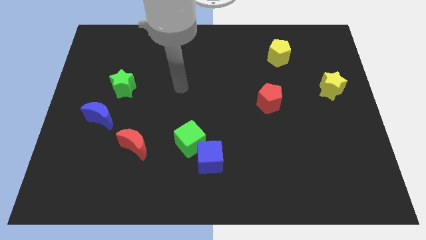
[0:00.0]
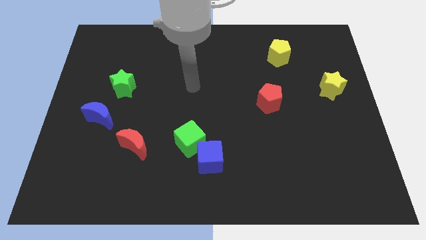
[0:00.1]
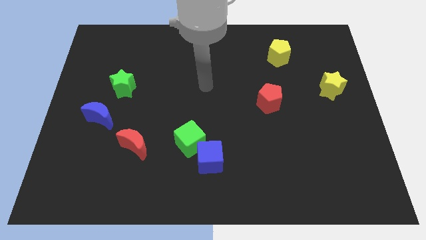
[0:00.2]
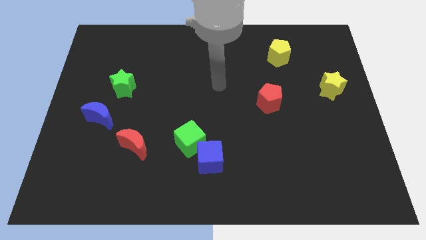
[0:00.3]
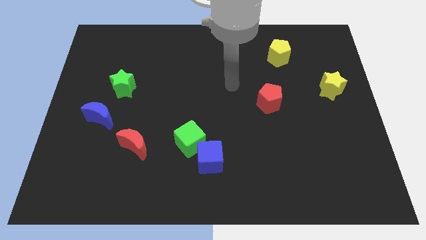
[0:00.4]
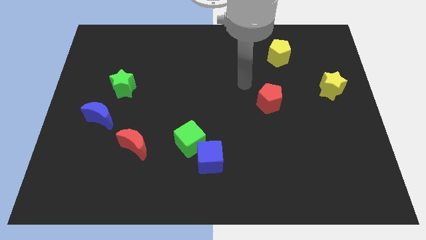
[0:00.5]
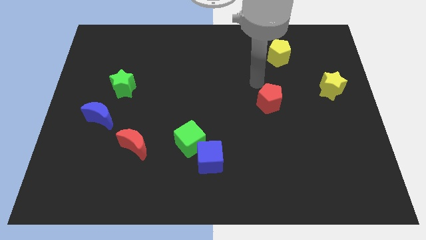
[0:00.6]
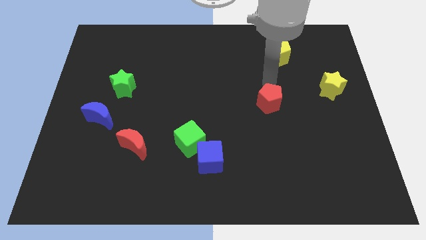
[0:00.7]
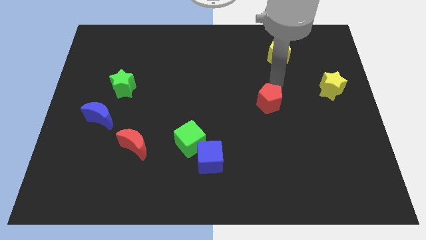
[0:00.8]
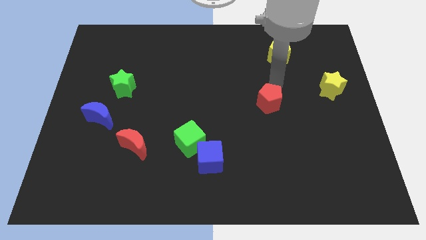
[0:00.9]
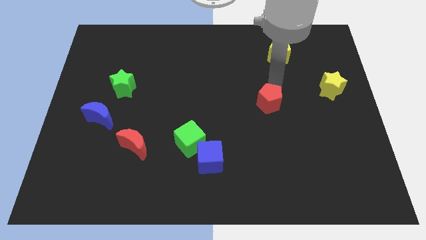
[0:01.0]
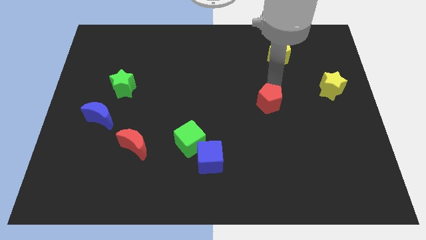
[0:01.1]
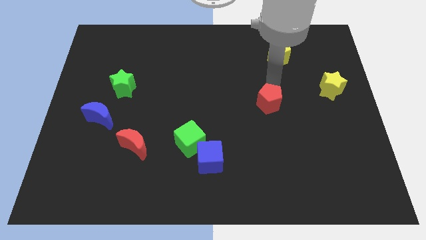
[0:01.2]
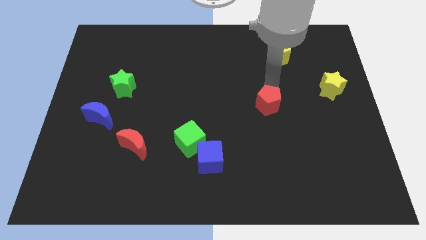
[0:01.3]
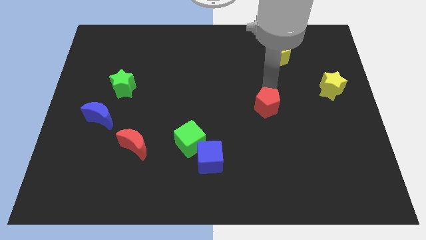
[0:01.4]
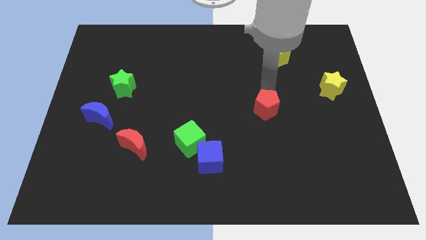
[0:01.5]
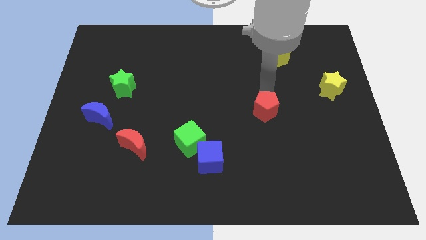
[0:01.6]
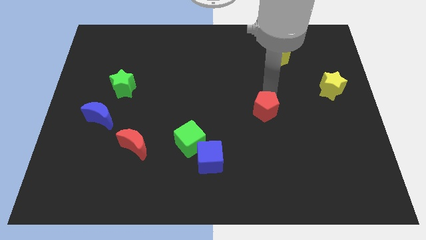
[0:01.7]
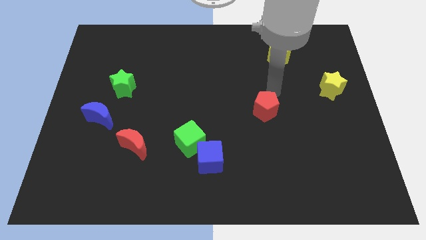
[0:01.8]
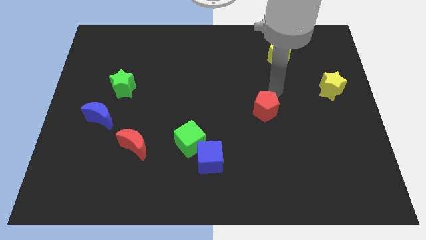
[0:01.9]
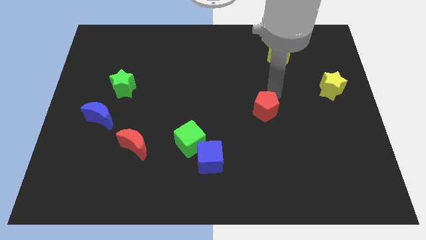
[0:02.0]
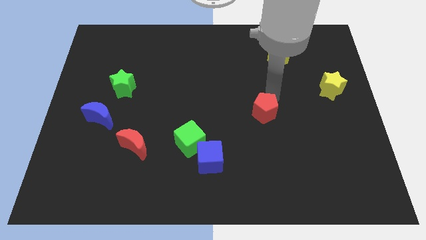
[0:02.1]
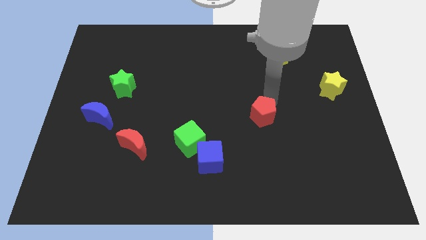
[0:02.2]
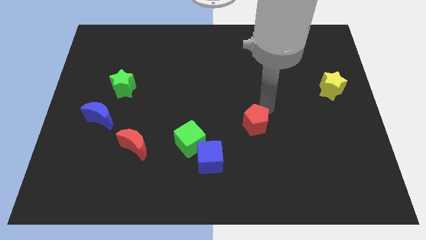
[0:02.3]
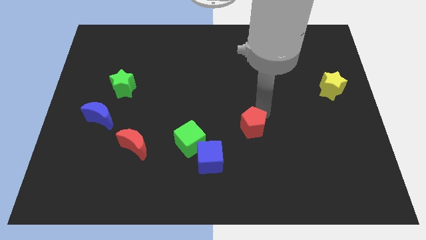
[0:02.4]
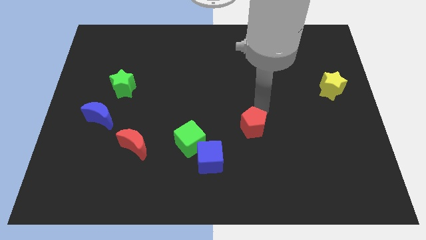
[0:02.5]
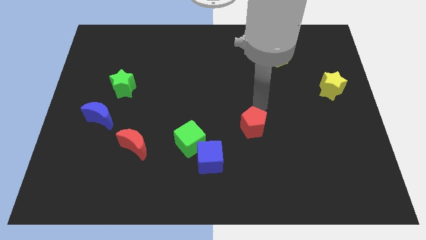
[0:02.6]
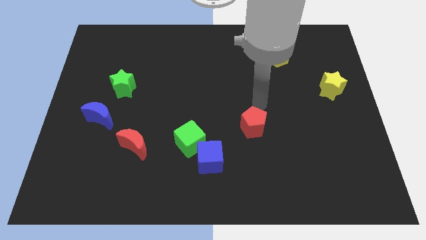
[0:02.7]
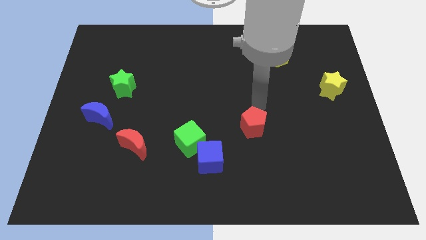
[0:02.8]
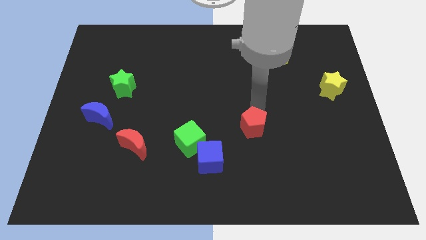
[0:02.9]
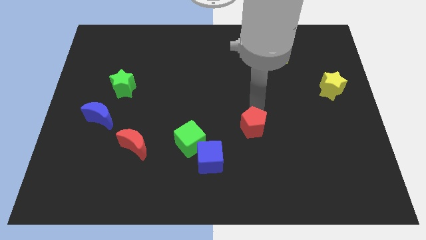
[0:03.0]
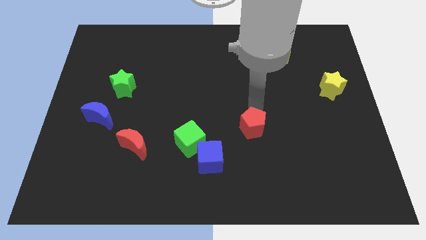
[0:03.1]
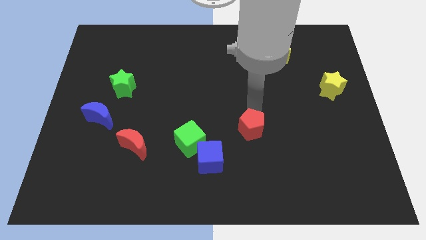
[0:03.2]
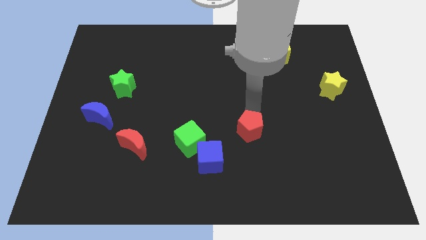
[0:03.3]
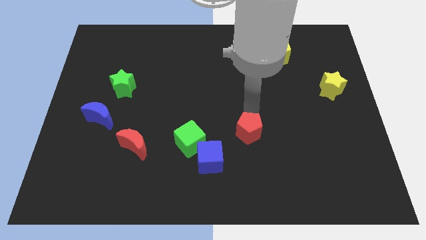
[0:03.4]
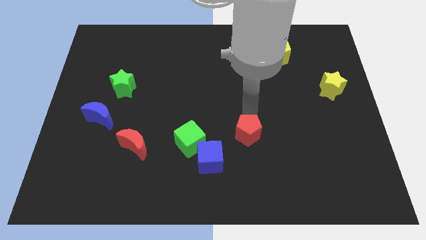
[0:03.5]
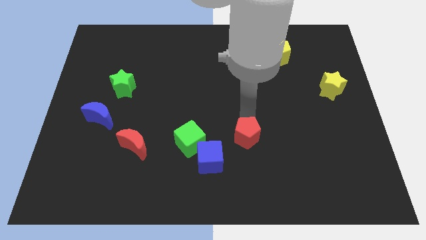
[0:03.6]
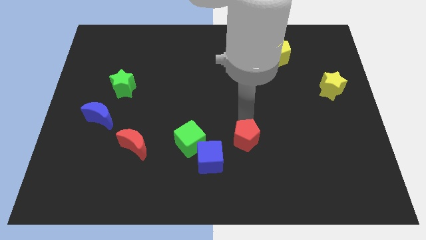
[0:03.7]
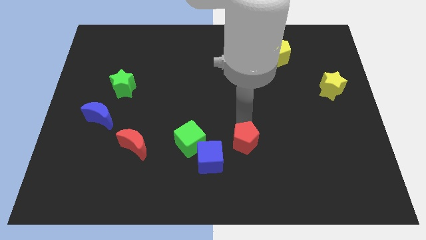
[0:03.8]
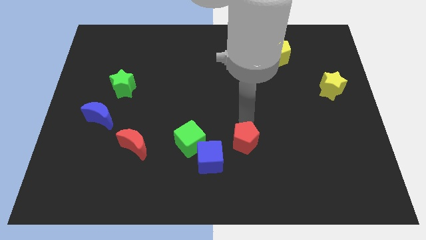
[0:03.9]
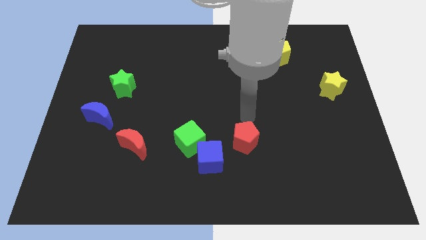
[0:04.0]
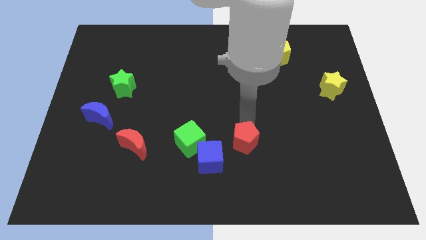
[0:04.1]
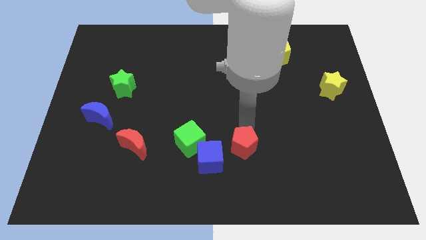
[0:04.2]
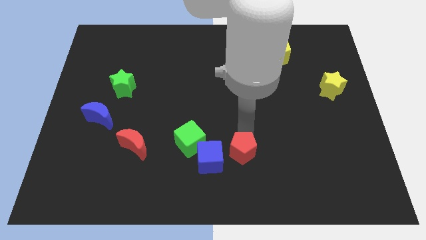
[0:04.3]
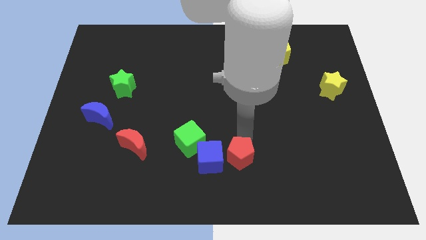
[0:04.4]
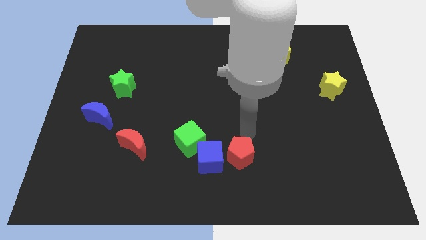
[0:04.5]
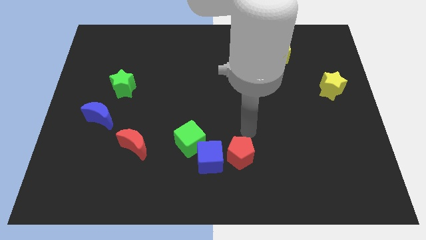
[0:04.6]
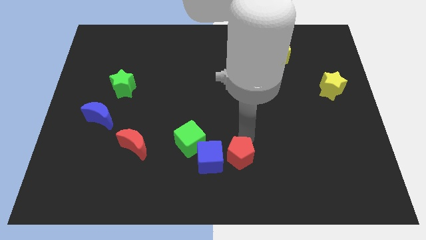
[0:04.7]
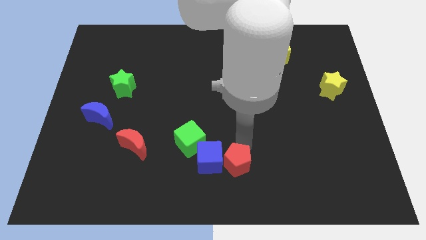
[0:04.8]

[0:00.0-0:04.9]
push the red pentagon to the bottom side

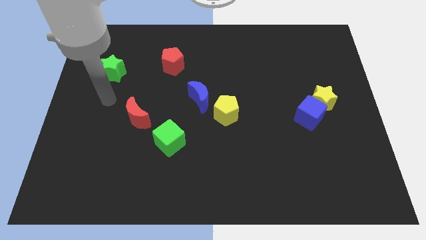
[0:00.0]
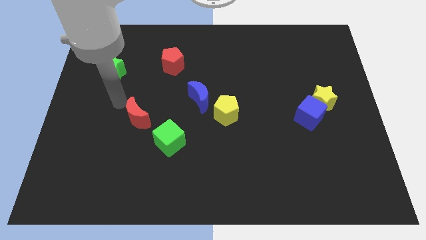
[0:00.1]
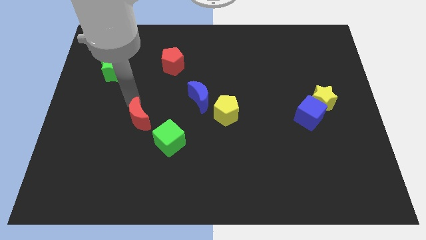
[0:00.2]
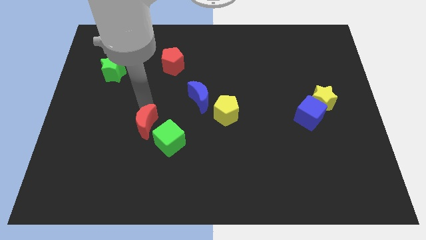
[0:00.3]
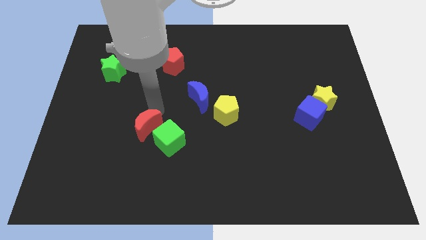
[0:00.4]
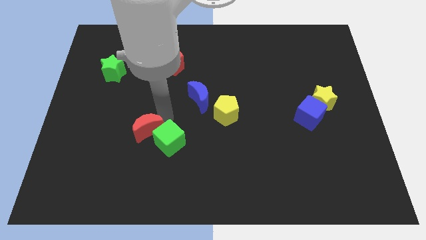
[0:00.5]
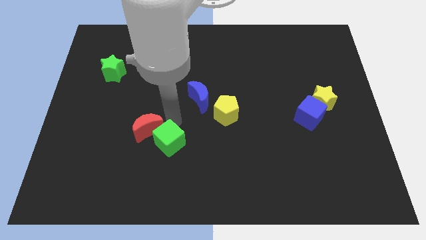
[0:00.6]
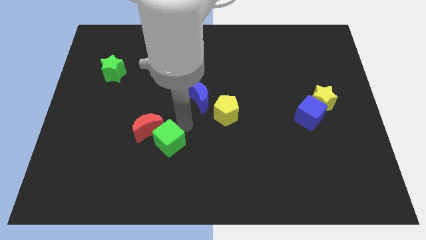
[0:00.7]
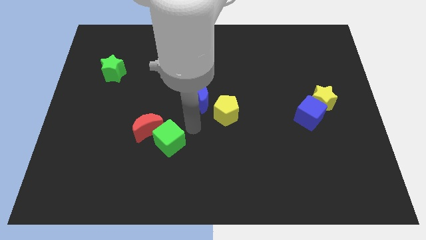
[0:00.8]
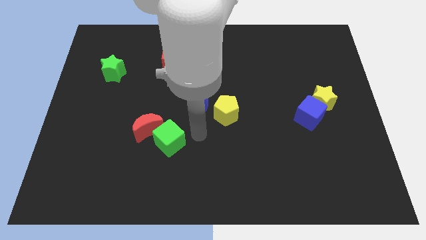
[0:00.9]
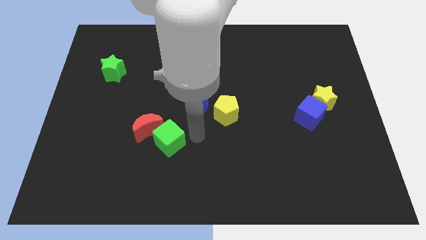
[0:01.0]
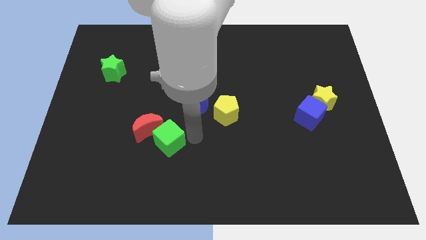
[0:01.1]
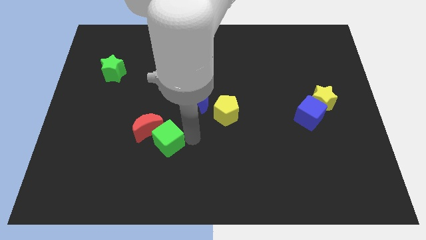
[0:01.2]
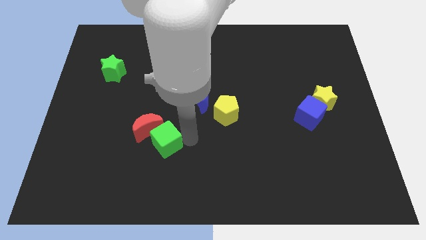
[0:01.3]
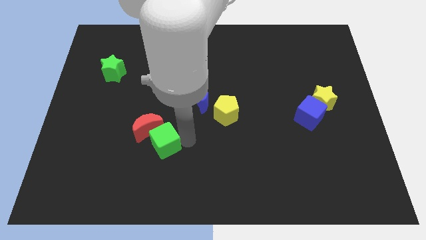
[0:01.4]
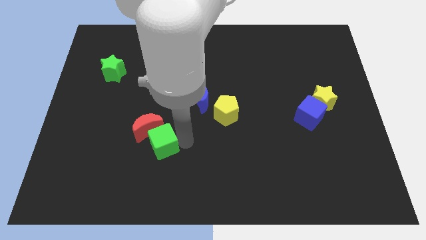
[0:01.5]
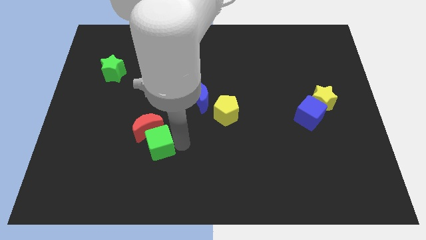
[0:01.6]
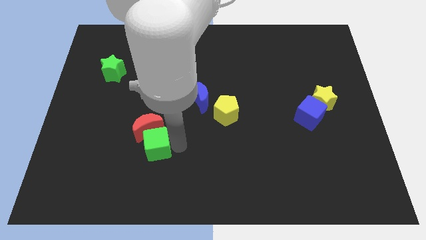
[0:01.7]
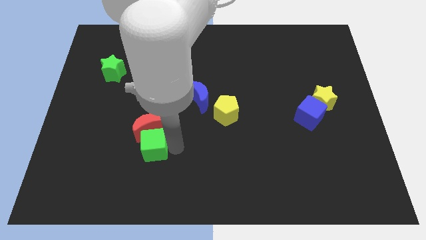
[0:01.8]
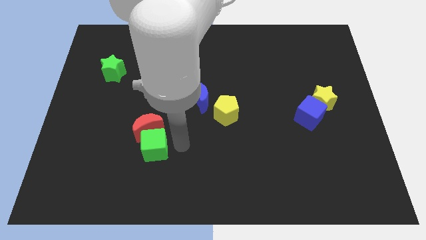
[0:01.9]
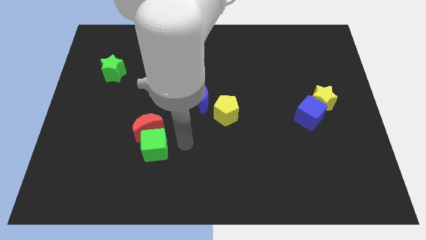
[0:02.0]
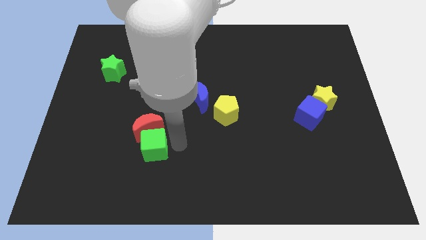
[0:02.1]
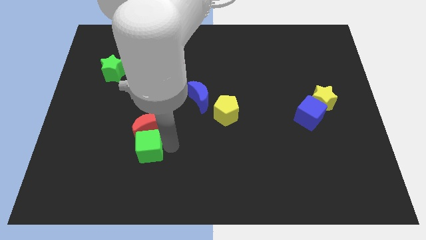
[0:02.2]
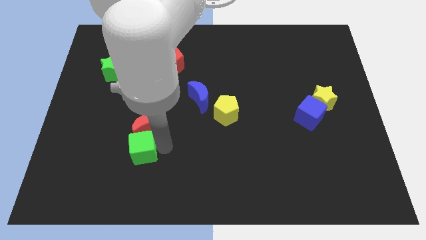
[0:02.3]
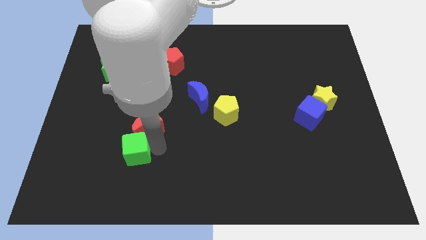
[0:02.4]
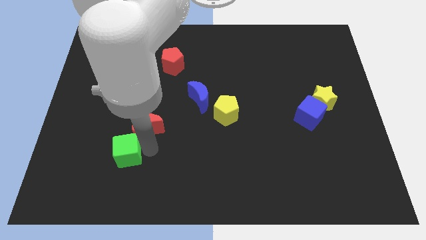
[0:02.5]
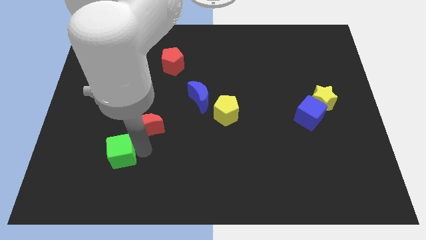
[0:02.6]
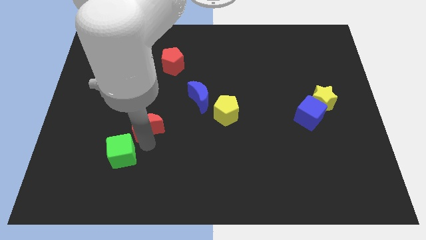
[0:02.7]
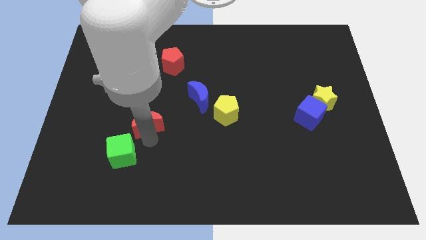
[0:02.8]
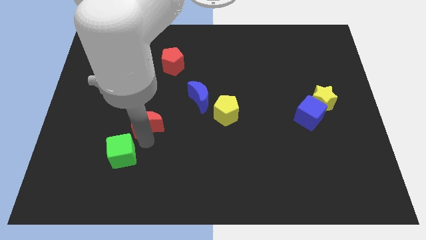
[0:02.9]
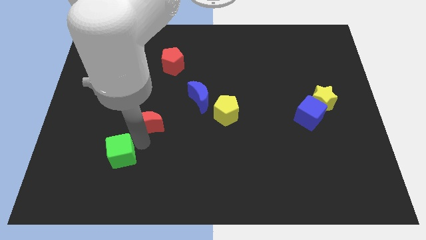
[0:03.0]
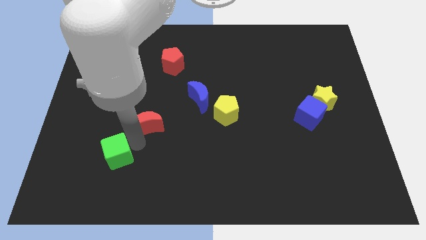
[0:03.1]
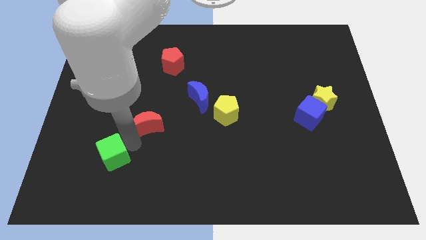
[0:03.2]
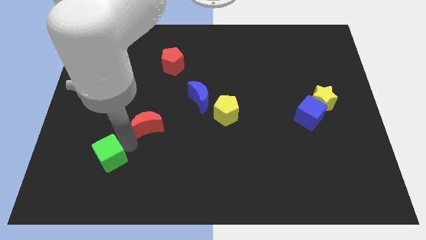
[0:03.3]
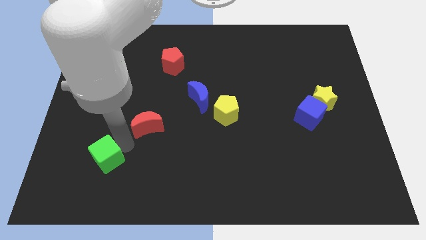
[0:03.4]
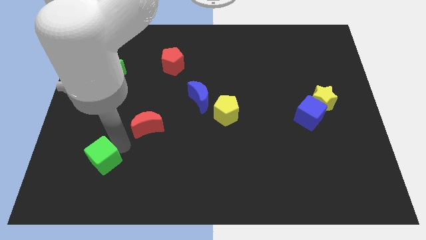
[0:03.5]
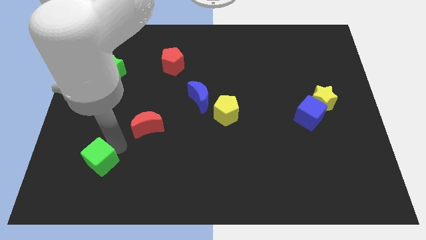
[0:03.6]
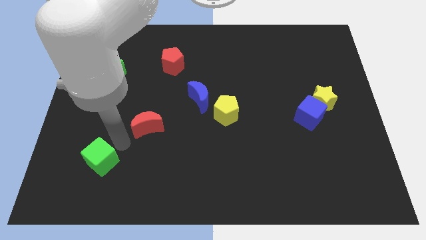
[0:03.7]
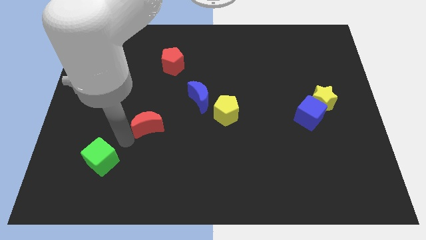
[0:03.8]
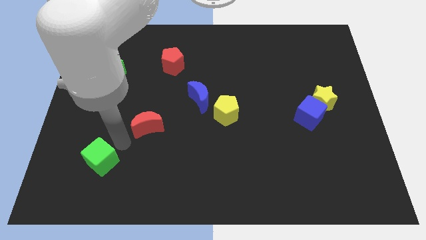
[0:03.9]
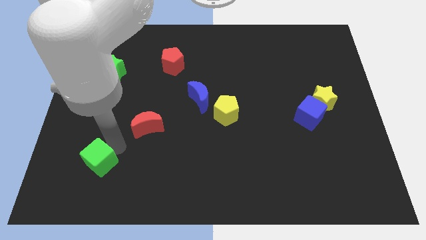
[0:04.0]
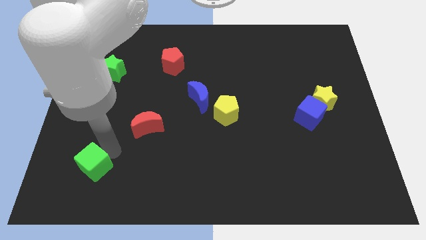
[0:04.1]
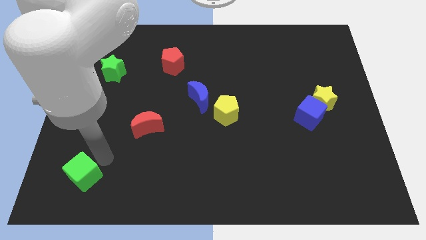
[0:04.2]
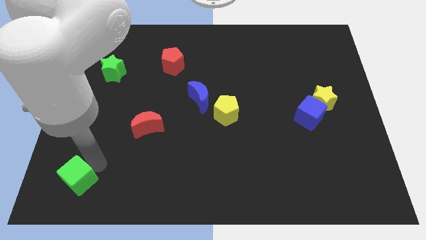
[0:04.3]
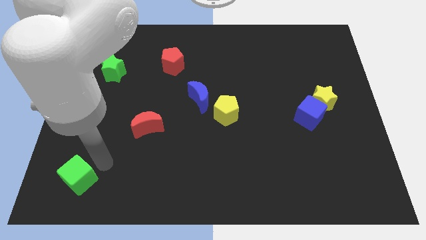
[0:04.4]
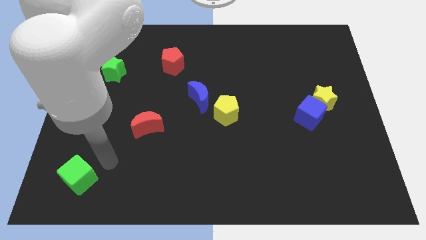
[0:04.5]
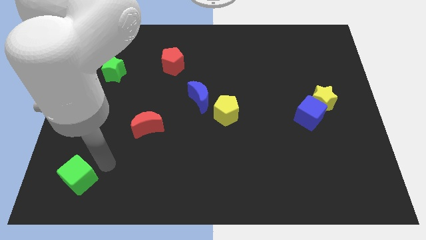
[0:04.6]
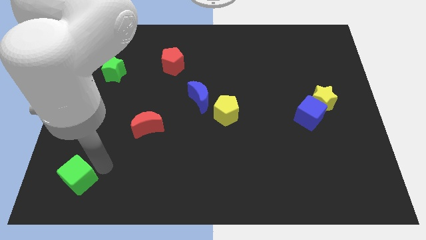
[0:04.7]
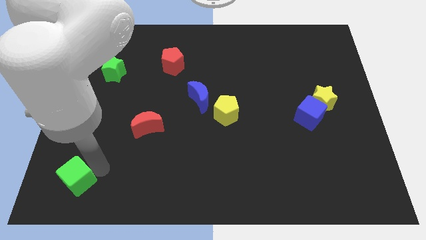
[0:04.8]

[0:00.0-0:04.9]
move the green cube to the bottom left
